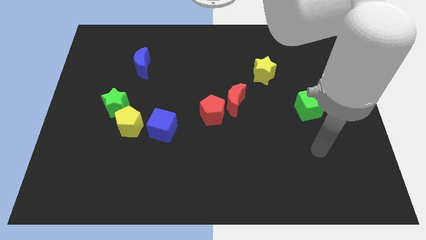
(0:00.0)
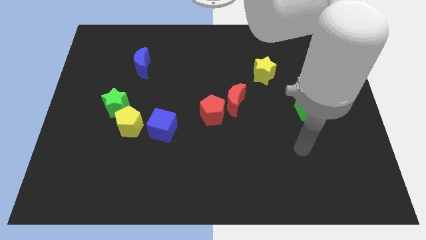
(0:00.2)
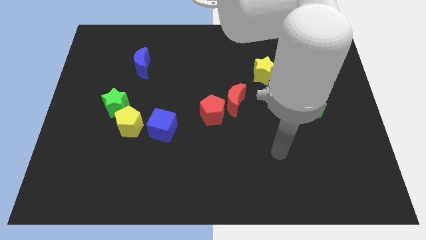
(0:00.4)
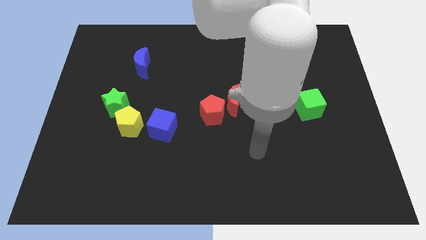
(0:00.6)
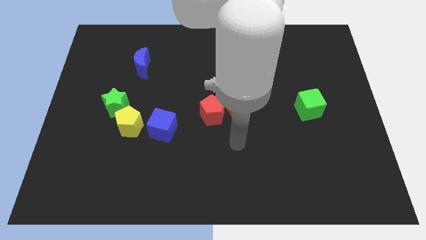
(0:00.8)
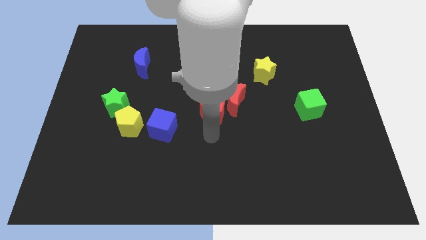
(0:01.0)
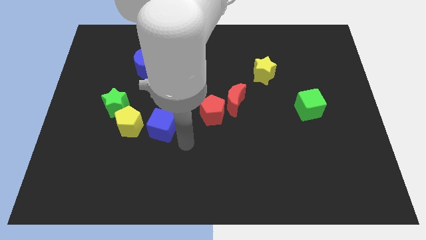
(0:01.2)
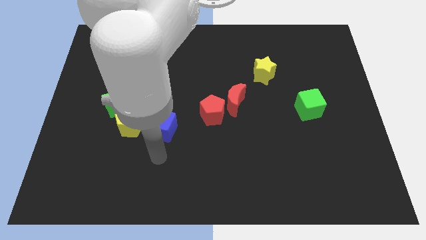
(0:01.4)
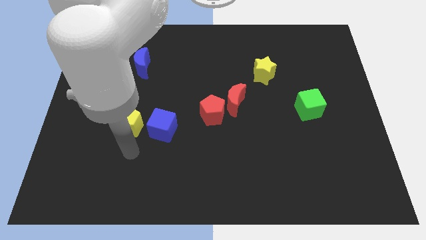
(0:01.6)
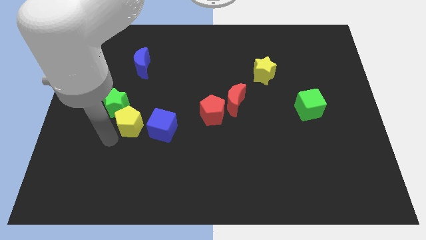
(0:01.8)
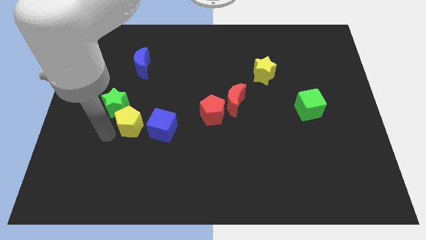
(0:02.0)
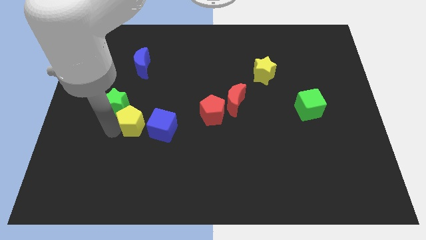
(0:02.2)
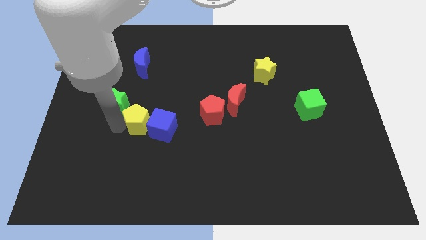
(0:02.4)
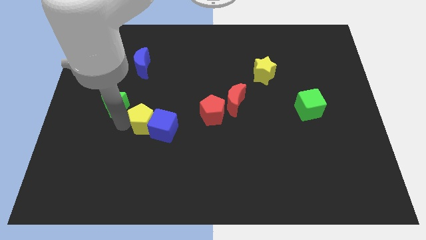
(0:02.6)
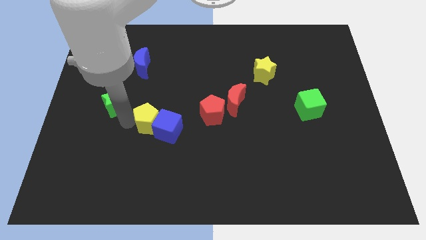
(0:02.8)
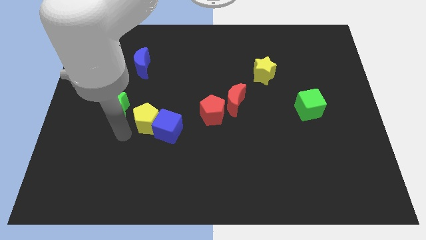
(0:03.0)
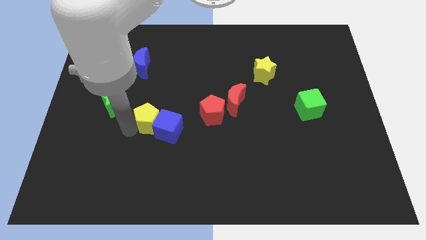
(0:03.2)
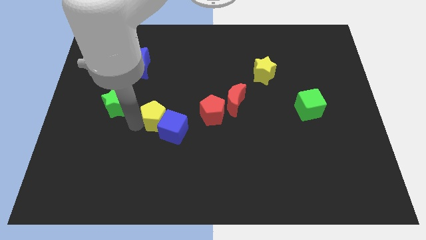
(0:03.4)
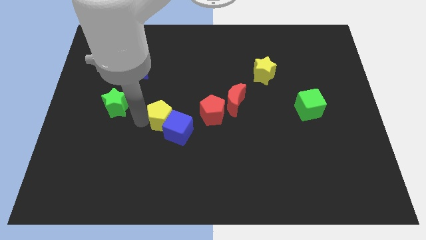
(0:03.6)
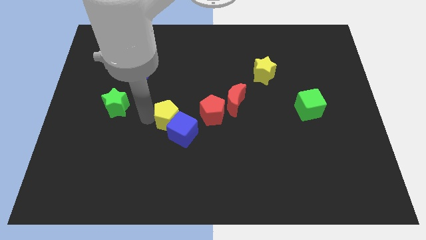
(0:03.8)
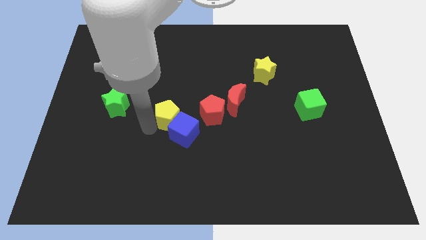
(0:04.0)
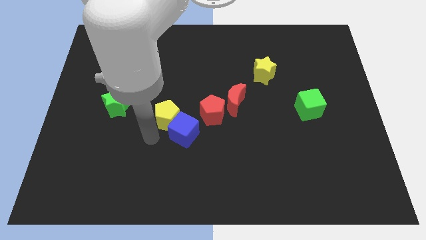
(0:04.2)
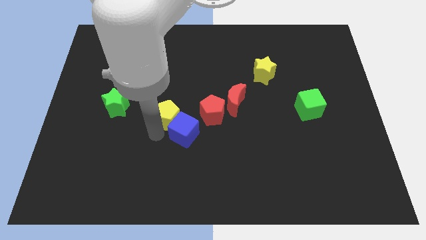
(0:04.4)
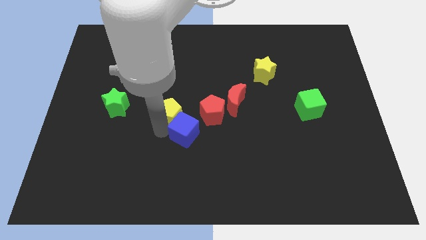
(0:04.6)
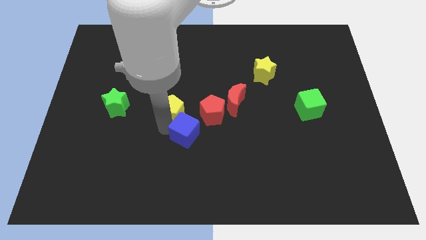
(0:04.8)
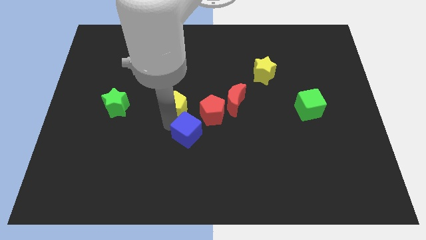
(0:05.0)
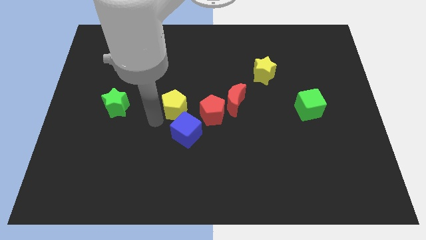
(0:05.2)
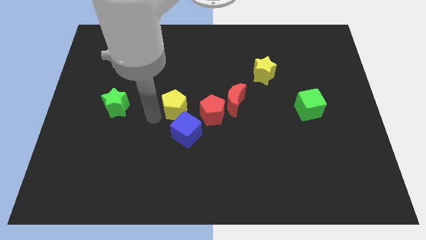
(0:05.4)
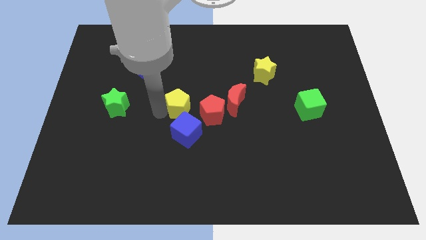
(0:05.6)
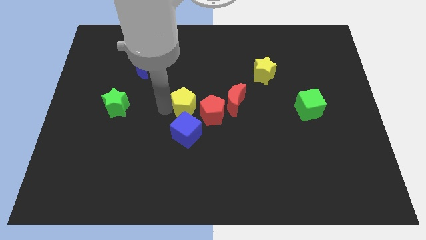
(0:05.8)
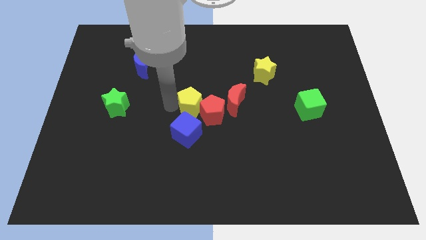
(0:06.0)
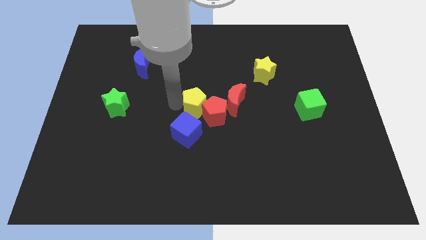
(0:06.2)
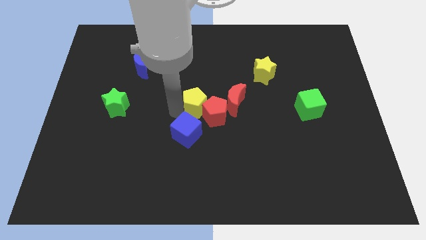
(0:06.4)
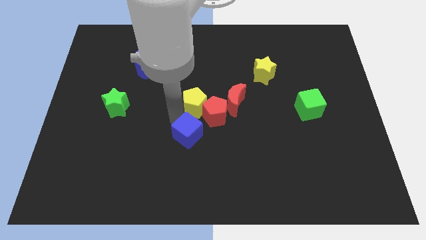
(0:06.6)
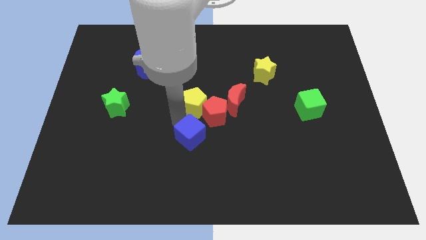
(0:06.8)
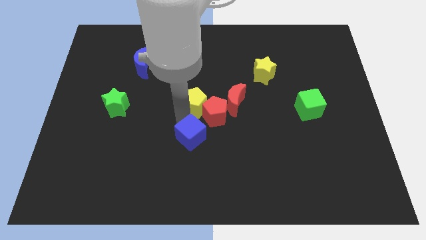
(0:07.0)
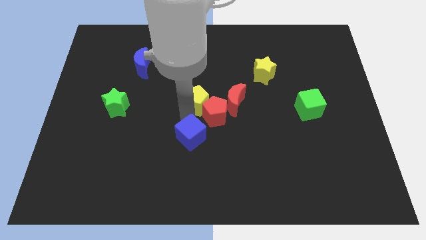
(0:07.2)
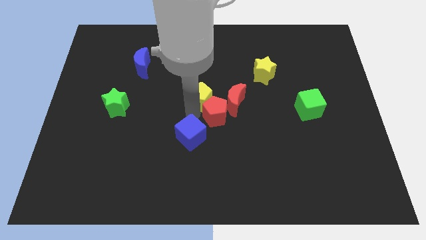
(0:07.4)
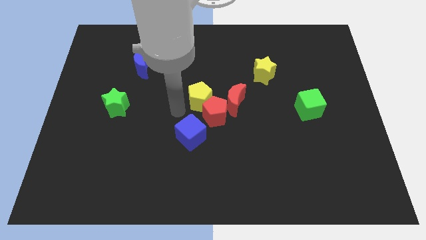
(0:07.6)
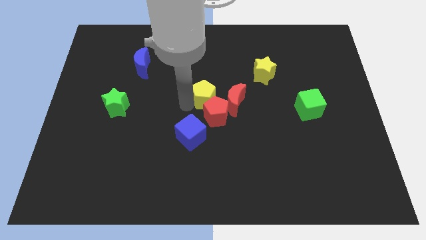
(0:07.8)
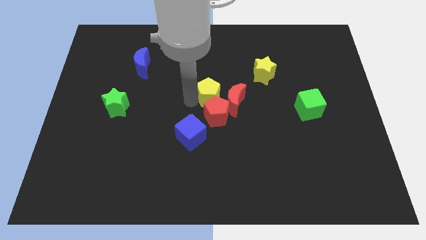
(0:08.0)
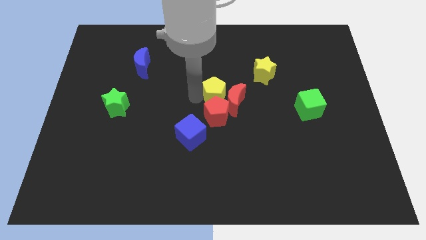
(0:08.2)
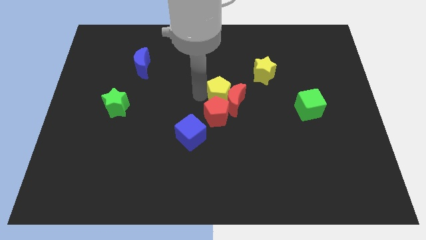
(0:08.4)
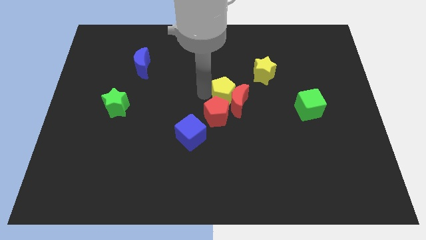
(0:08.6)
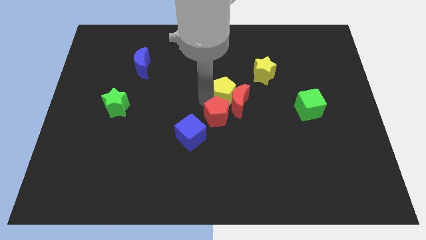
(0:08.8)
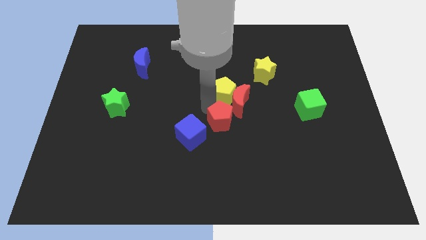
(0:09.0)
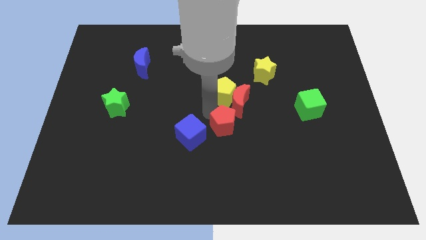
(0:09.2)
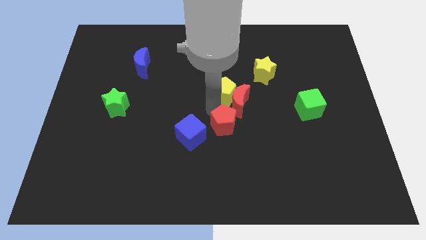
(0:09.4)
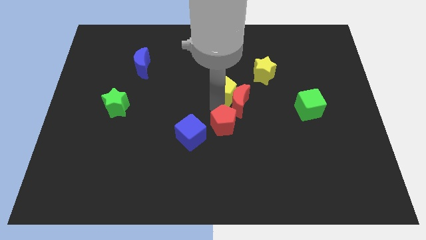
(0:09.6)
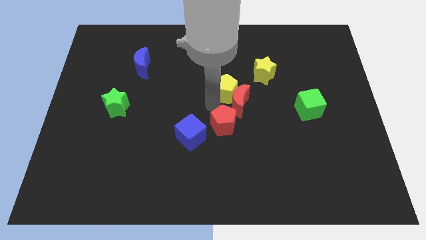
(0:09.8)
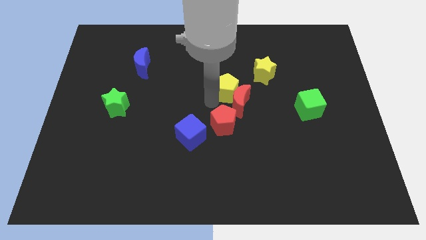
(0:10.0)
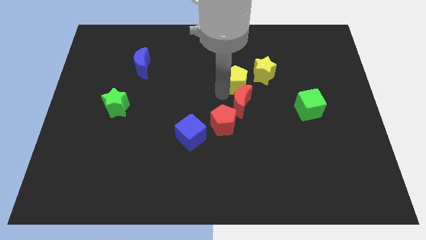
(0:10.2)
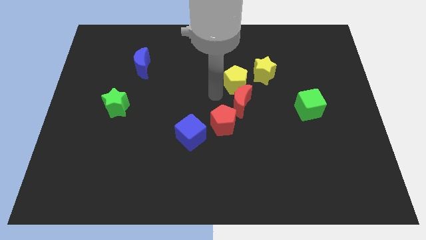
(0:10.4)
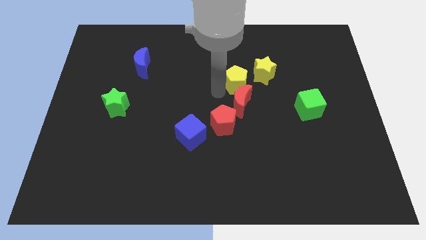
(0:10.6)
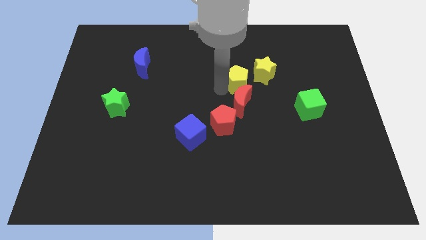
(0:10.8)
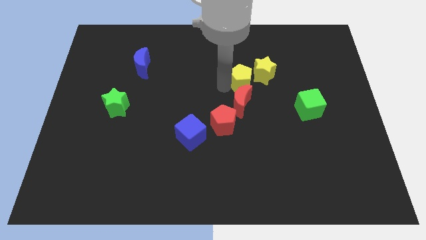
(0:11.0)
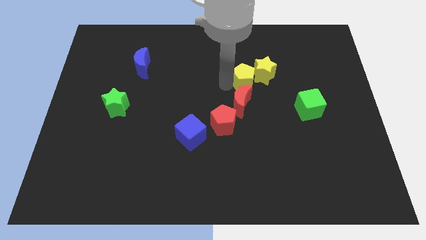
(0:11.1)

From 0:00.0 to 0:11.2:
push the yellow pentagon towards the yellow star

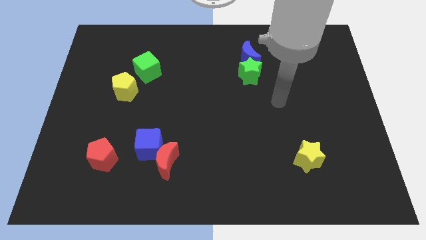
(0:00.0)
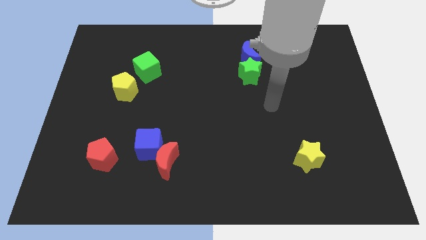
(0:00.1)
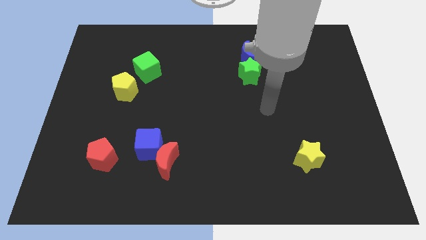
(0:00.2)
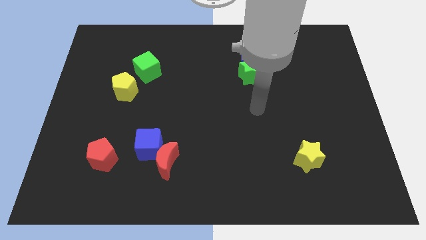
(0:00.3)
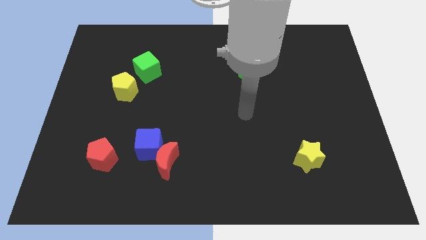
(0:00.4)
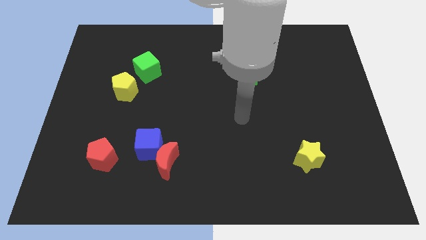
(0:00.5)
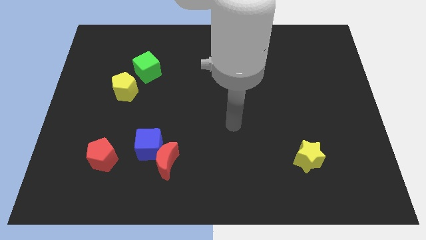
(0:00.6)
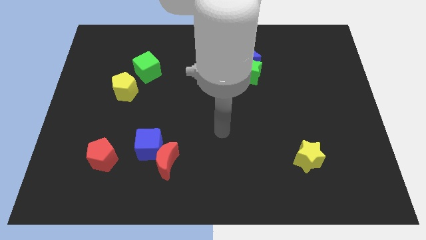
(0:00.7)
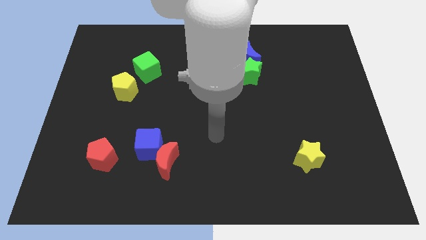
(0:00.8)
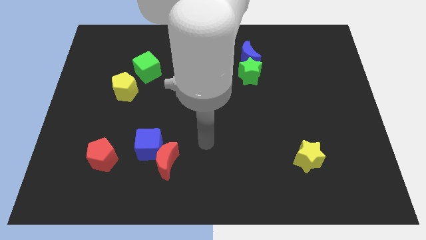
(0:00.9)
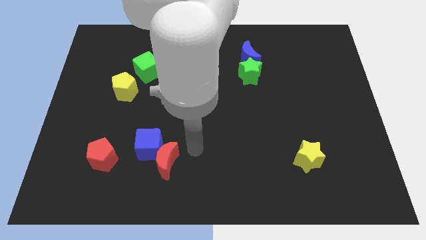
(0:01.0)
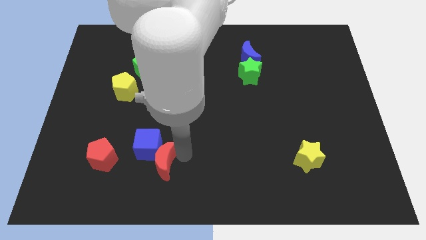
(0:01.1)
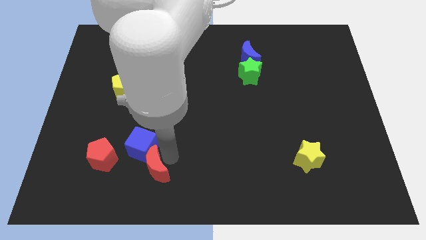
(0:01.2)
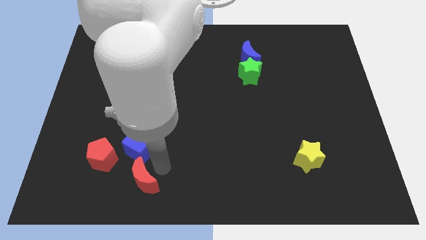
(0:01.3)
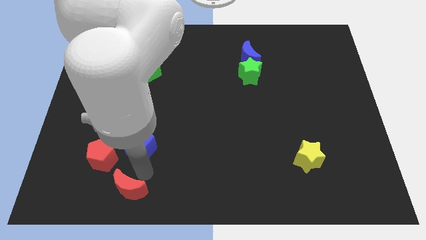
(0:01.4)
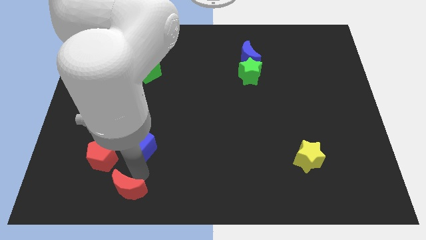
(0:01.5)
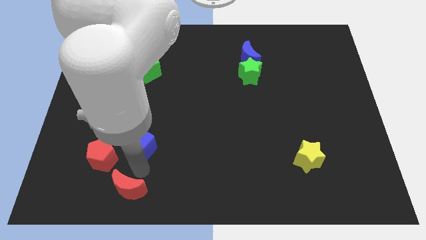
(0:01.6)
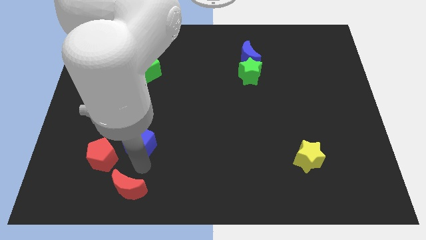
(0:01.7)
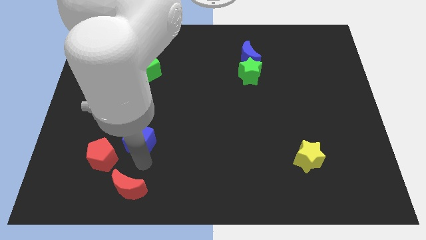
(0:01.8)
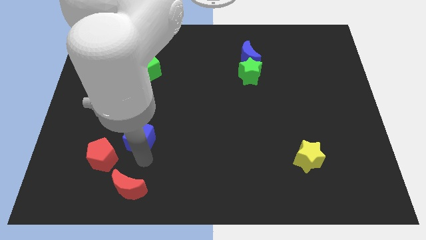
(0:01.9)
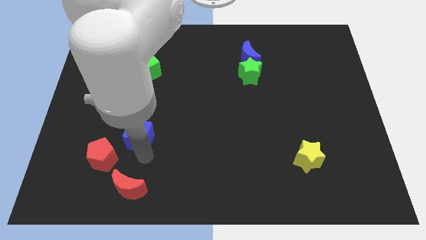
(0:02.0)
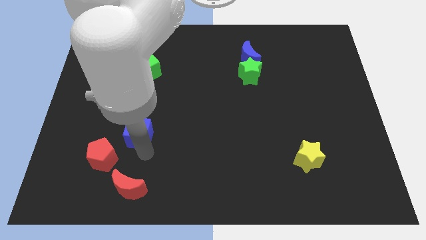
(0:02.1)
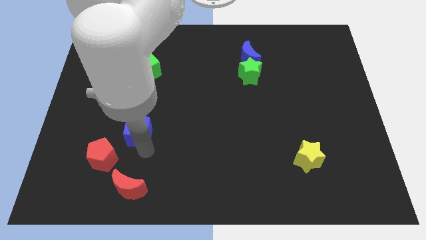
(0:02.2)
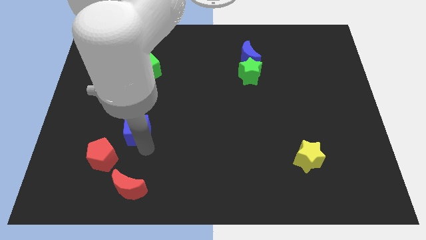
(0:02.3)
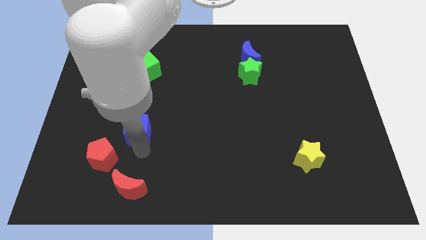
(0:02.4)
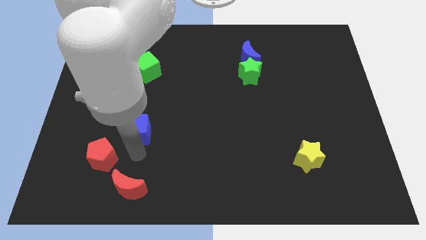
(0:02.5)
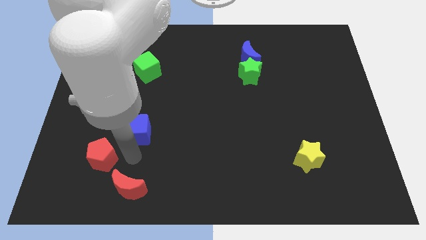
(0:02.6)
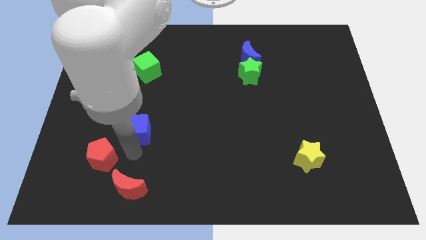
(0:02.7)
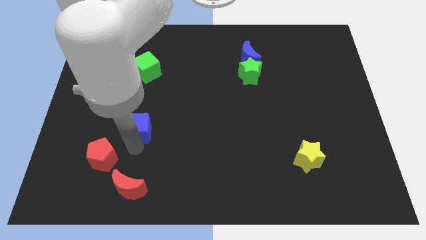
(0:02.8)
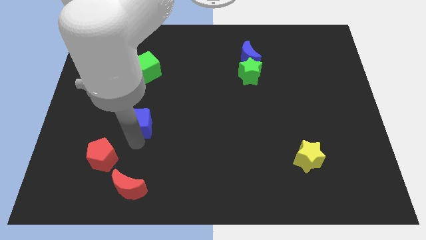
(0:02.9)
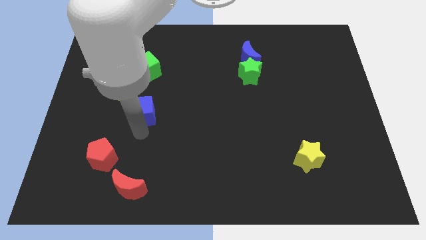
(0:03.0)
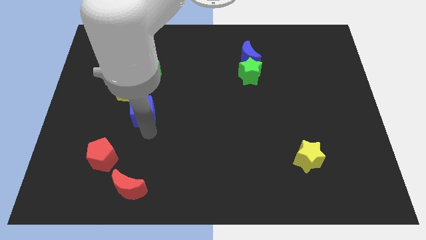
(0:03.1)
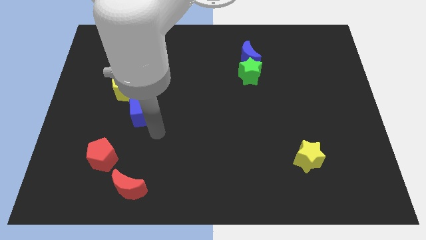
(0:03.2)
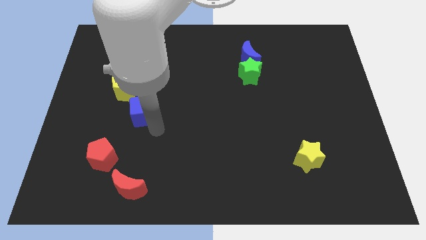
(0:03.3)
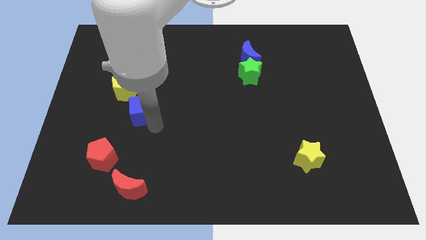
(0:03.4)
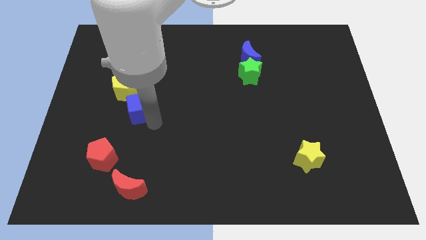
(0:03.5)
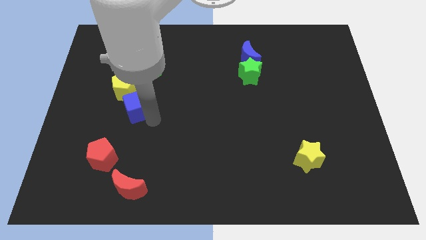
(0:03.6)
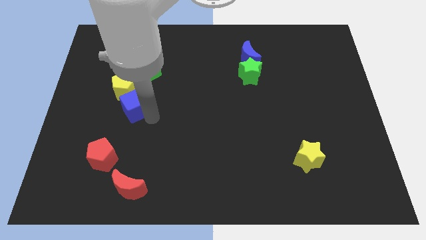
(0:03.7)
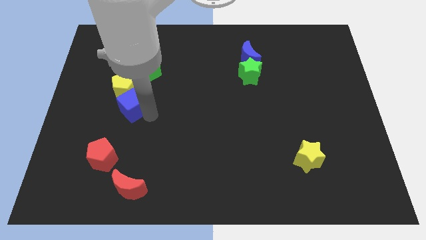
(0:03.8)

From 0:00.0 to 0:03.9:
slide the blue cube next to the yellow pentagon
